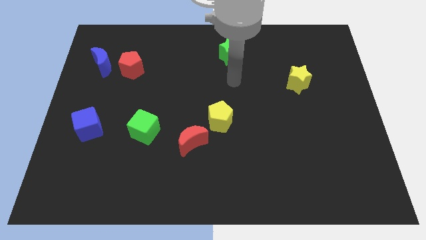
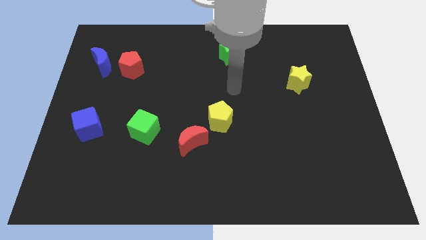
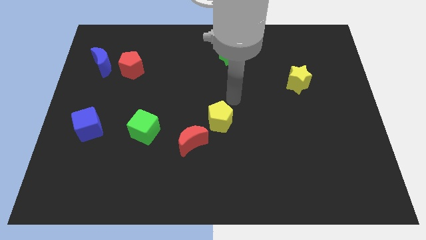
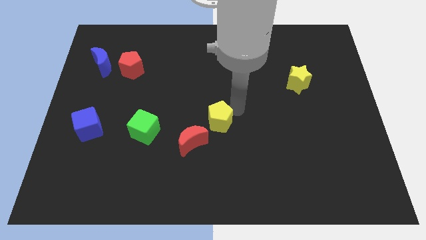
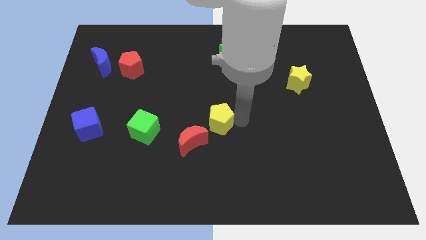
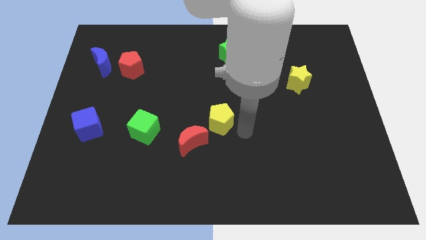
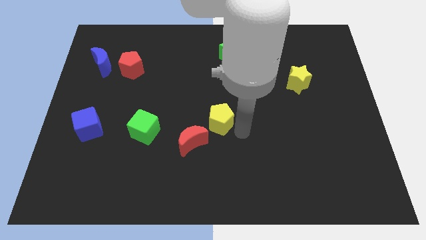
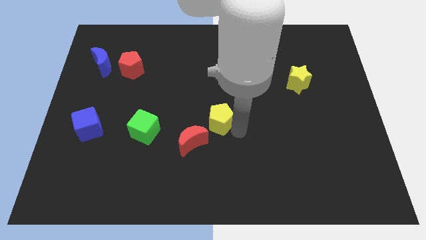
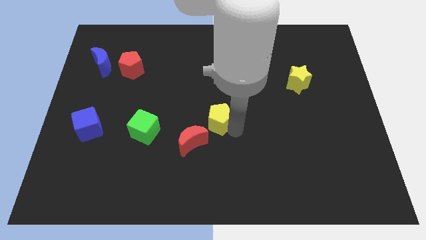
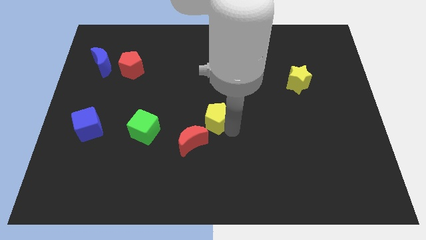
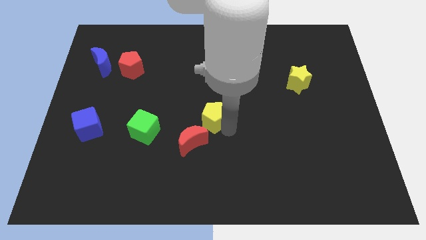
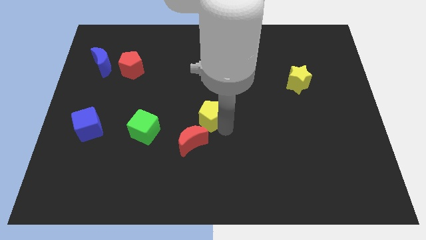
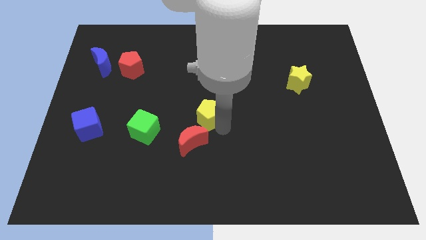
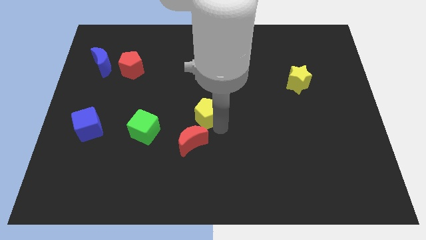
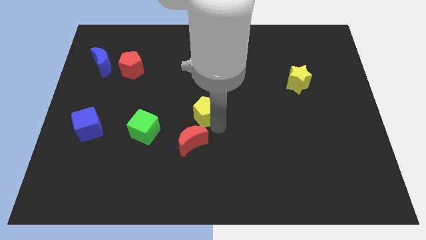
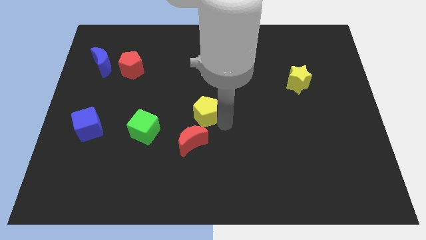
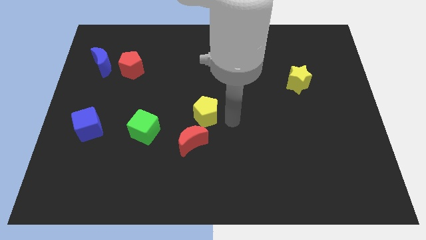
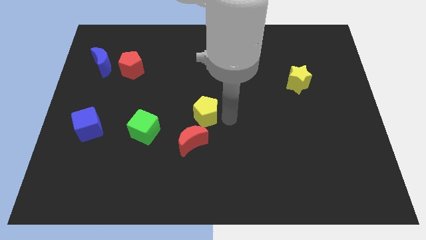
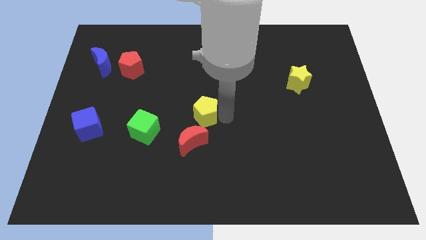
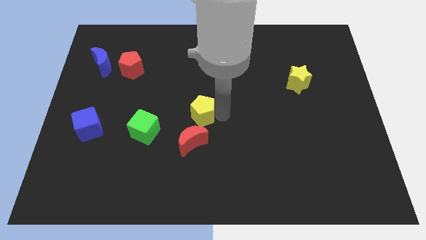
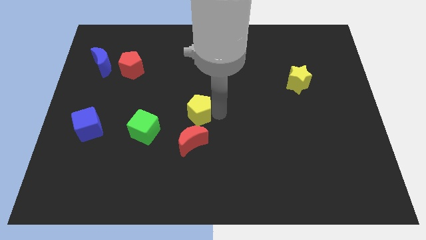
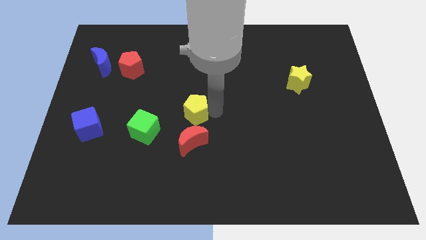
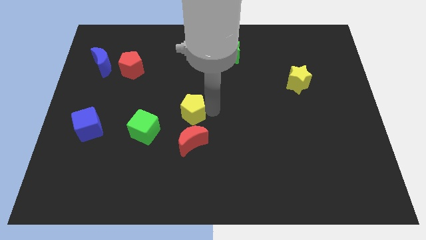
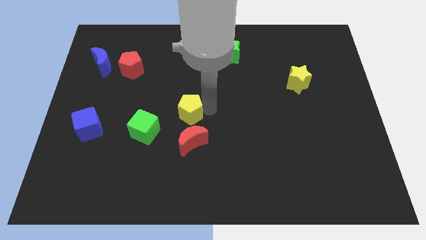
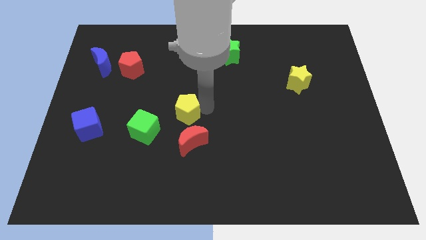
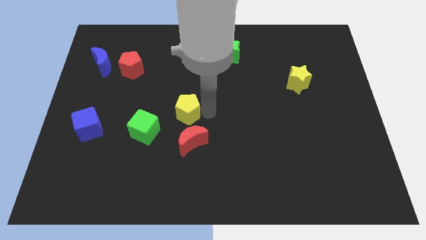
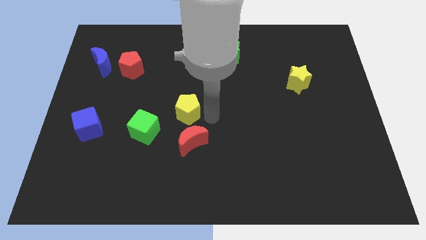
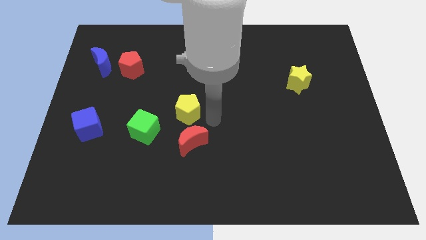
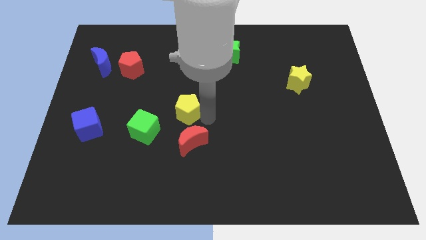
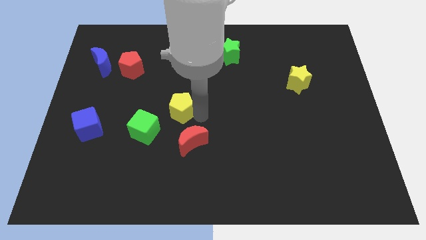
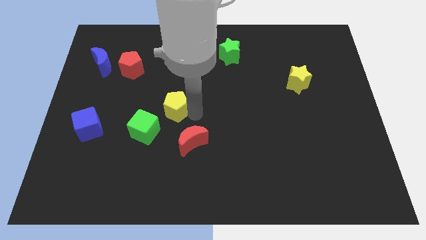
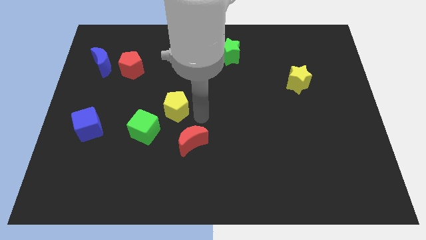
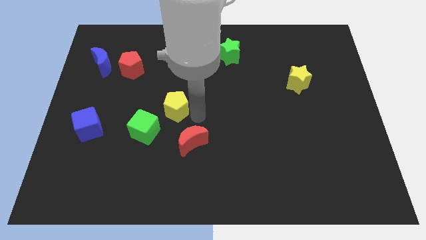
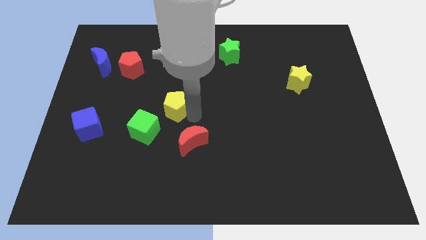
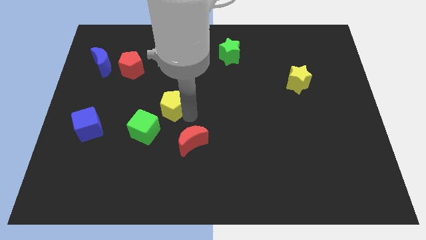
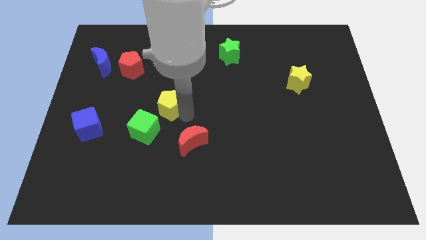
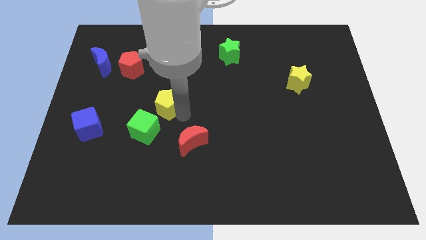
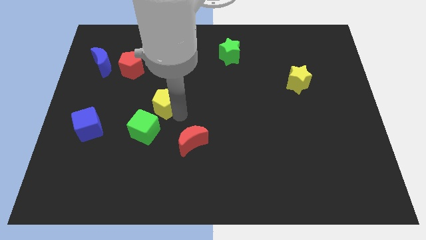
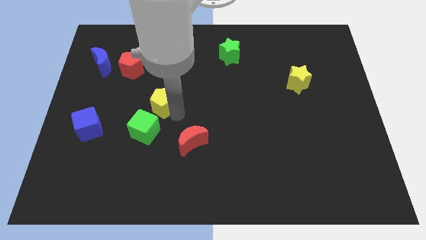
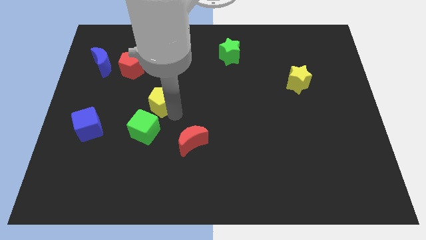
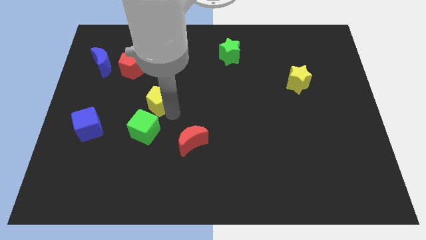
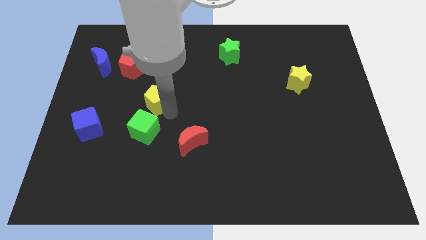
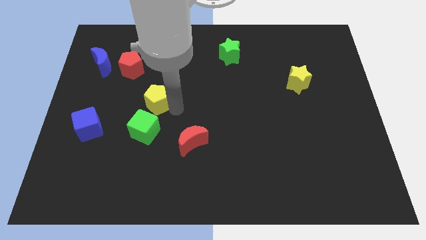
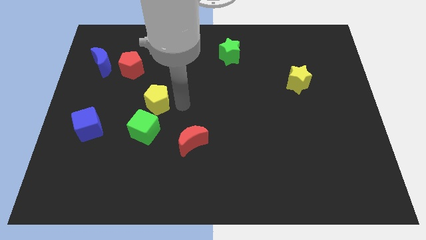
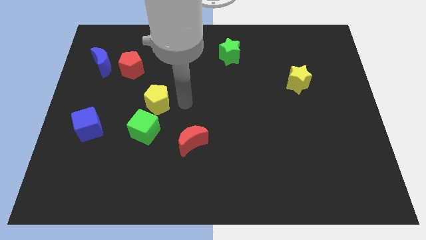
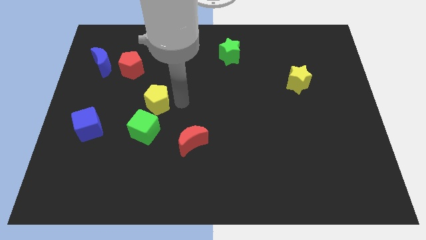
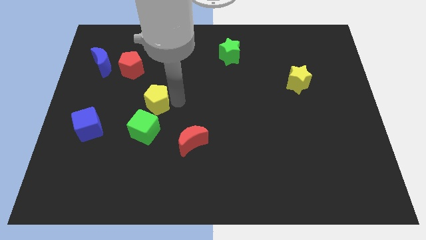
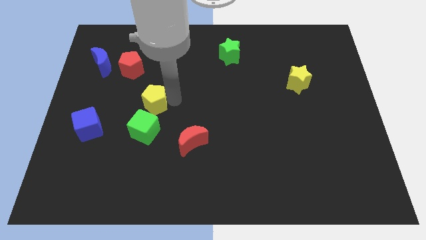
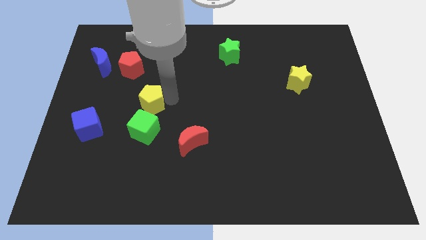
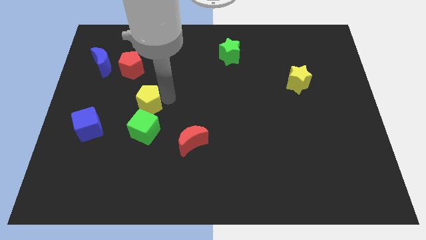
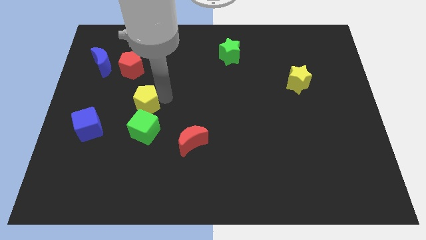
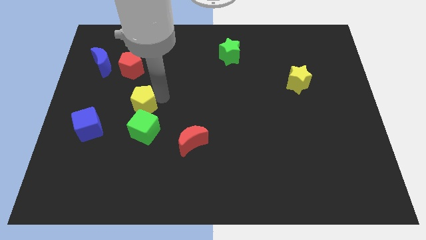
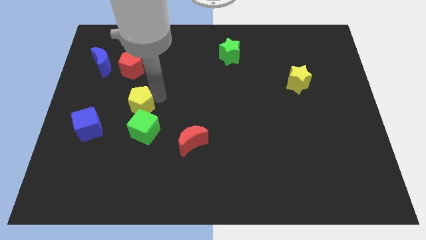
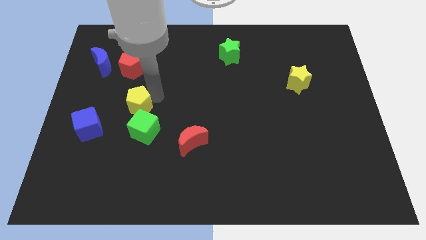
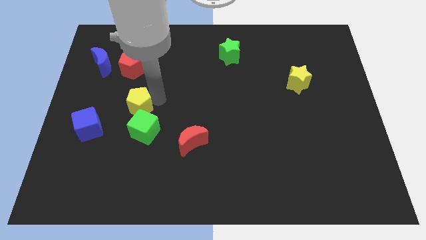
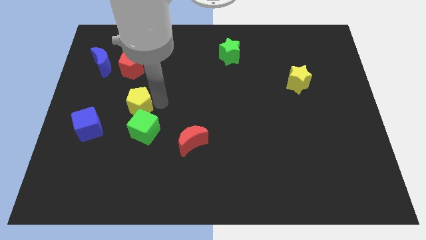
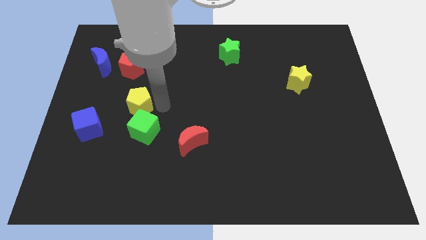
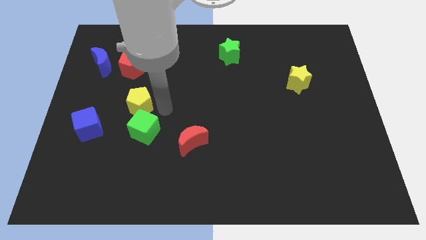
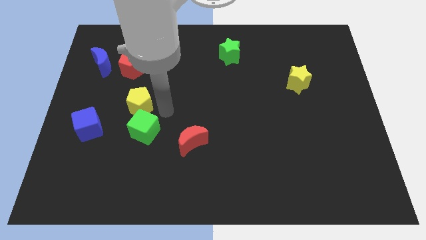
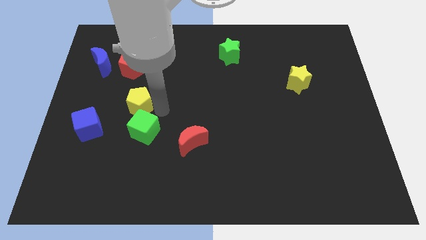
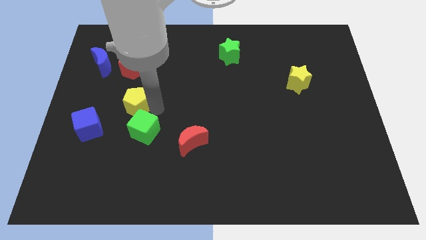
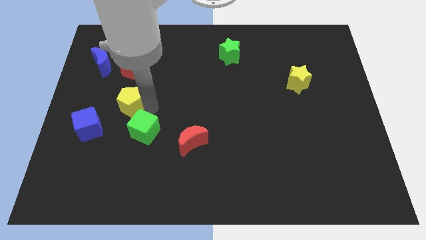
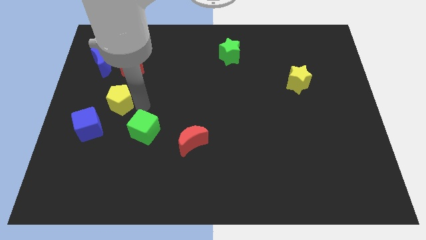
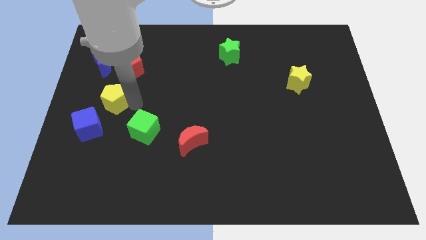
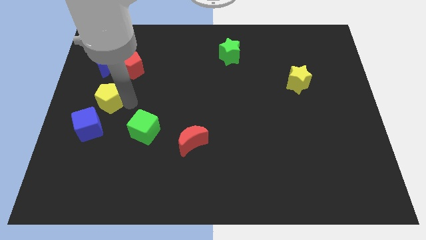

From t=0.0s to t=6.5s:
slide the yellow pentagon to the left side
